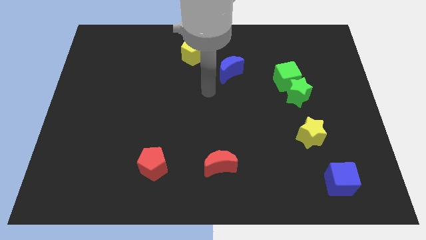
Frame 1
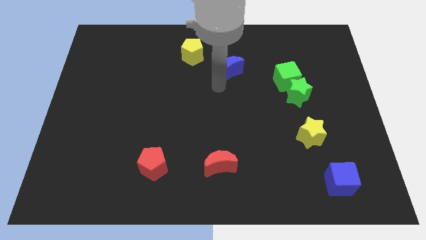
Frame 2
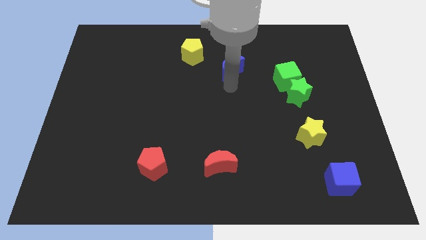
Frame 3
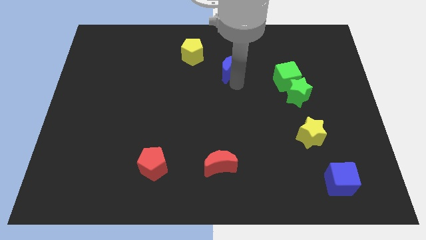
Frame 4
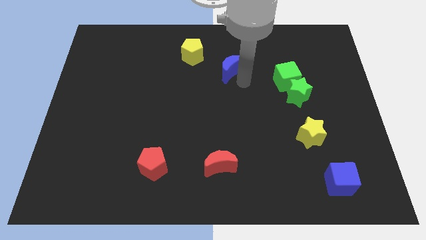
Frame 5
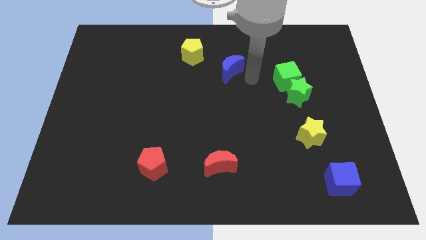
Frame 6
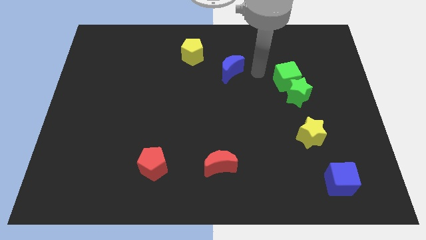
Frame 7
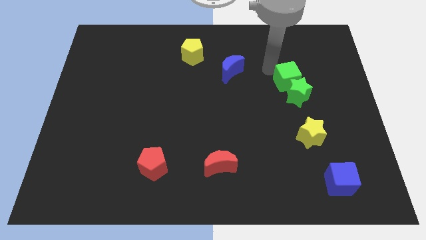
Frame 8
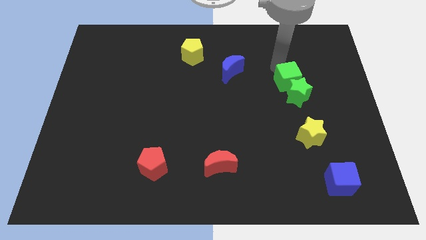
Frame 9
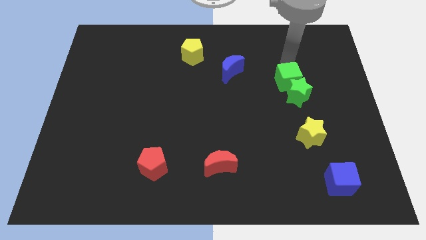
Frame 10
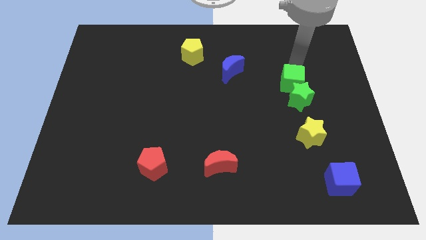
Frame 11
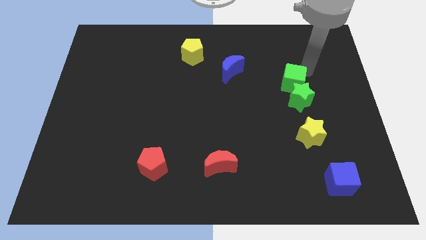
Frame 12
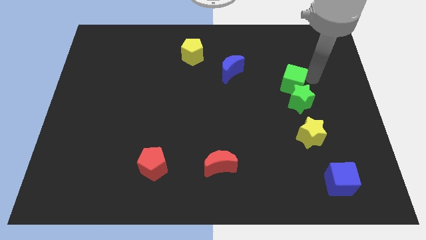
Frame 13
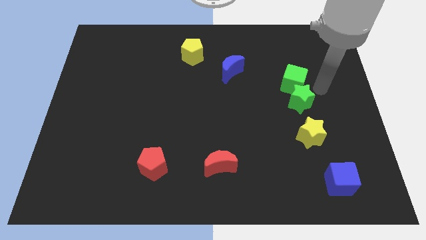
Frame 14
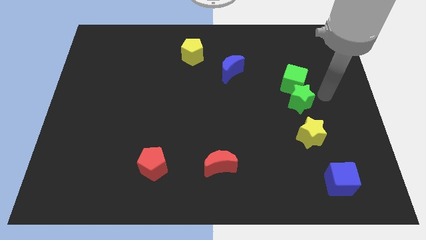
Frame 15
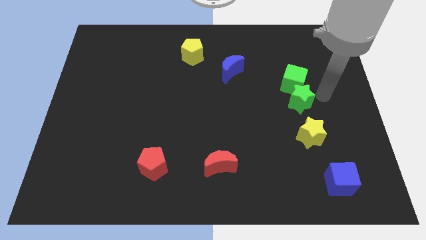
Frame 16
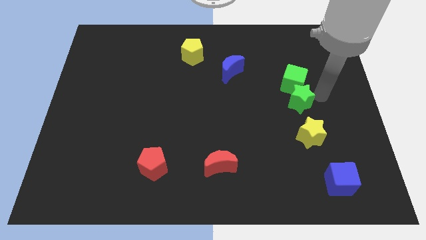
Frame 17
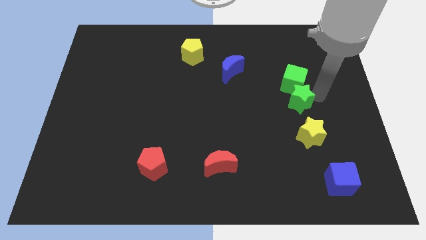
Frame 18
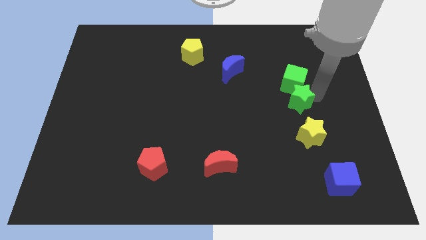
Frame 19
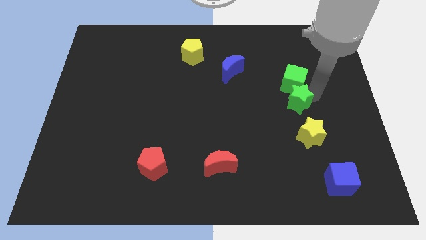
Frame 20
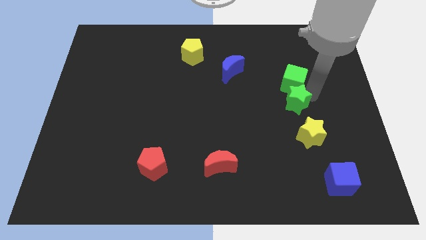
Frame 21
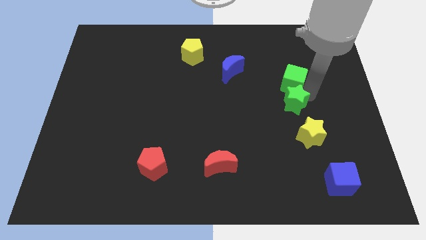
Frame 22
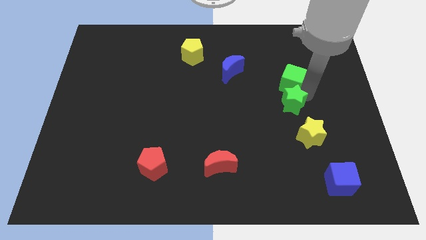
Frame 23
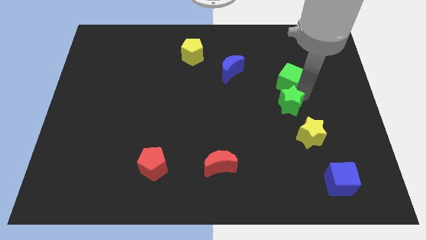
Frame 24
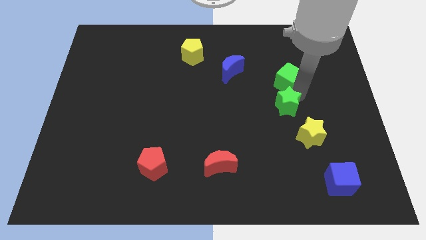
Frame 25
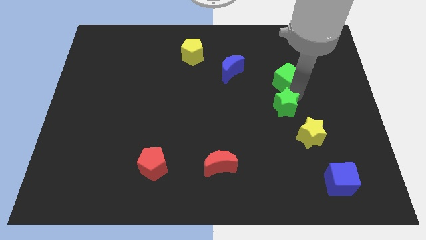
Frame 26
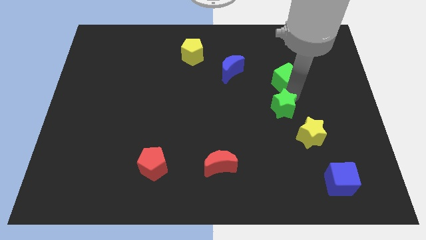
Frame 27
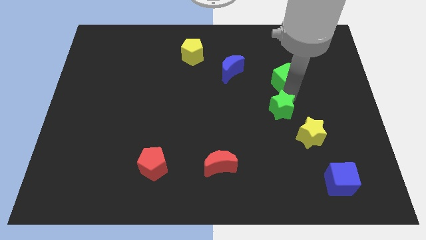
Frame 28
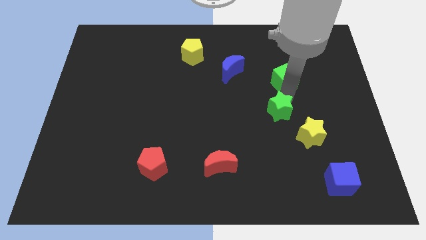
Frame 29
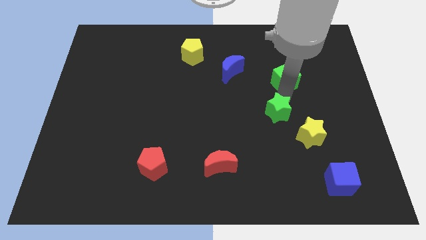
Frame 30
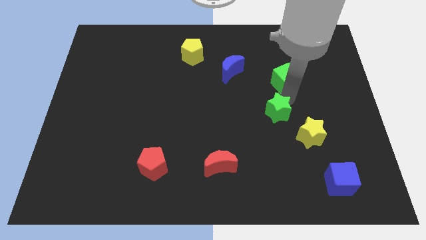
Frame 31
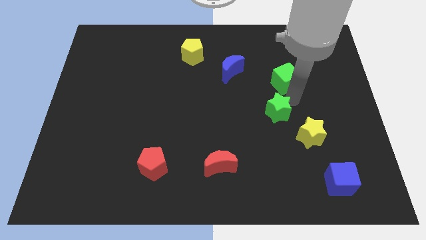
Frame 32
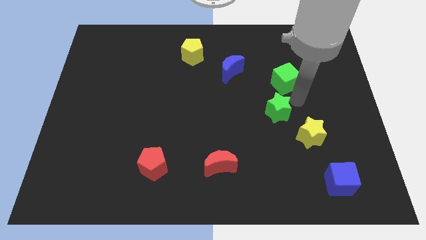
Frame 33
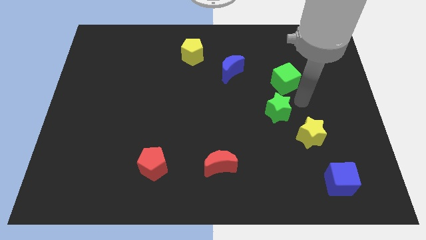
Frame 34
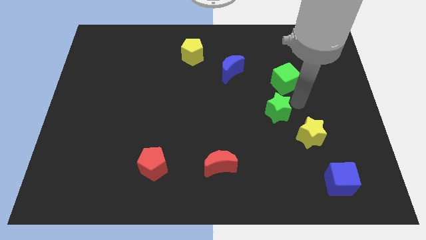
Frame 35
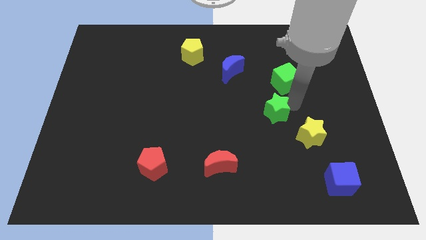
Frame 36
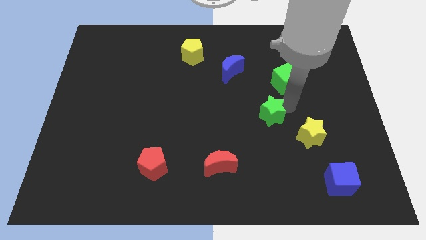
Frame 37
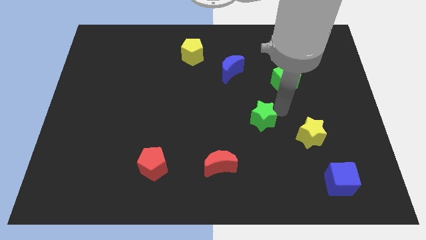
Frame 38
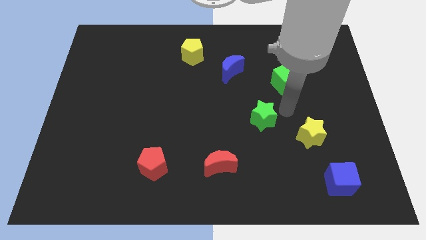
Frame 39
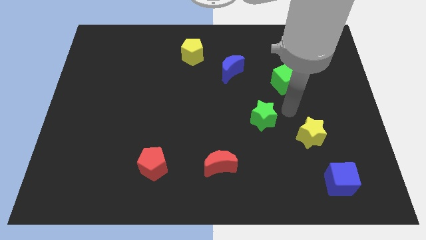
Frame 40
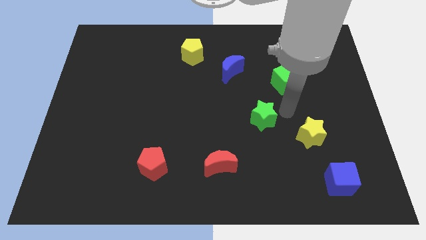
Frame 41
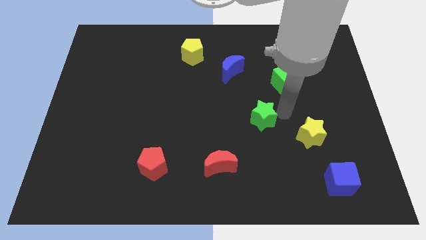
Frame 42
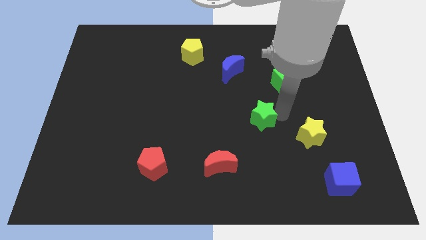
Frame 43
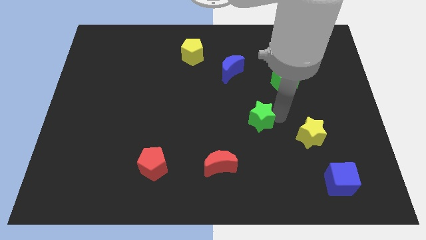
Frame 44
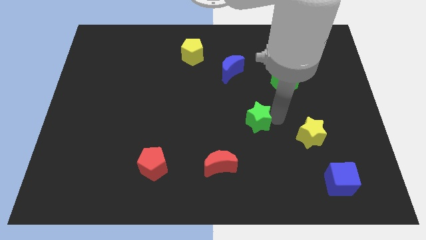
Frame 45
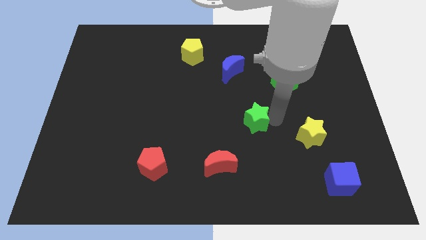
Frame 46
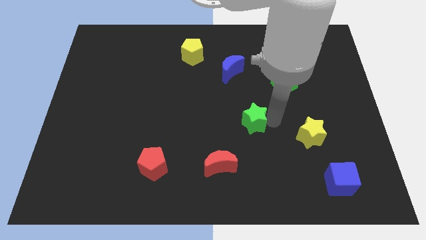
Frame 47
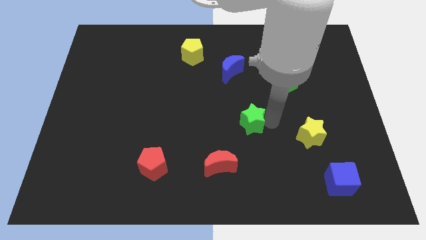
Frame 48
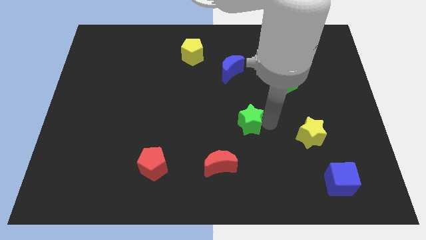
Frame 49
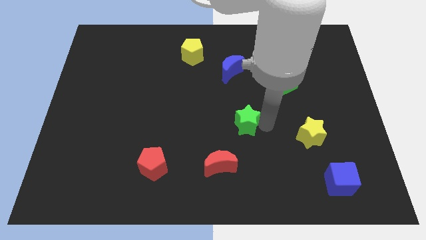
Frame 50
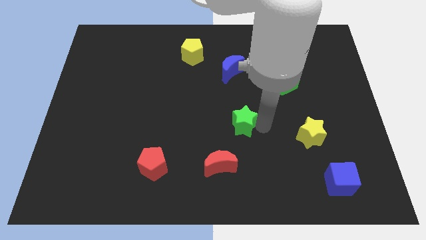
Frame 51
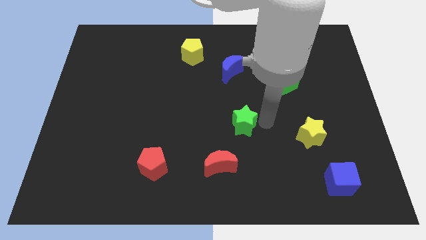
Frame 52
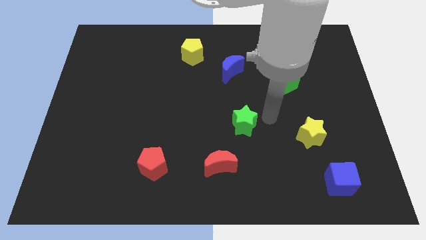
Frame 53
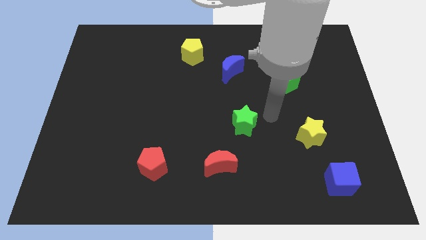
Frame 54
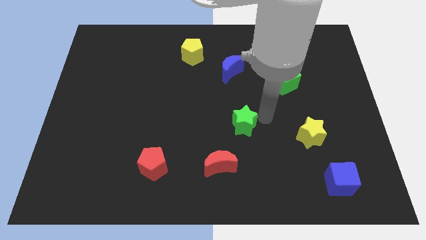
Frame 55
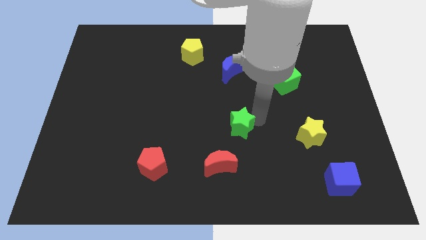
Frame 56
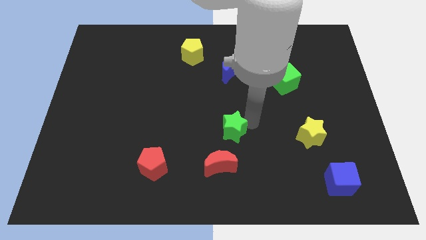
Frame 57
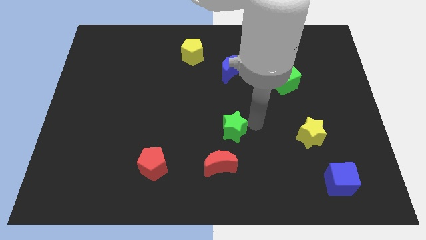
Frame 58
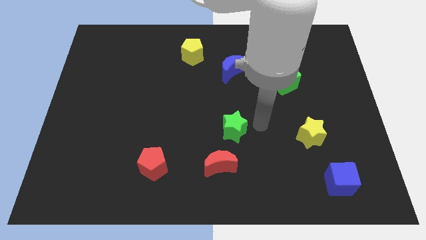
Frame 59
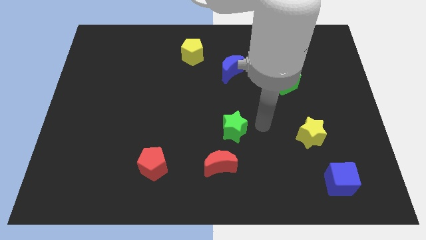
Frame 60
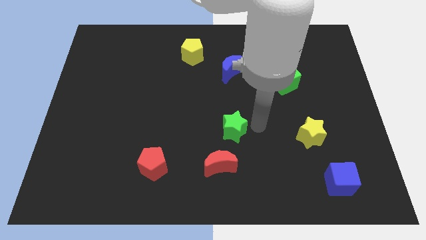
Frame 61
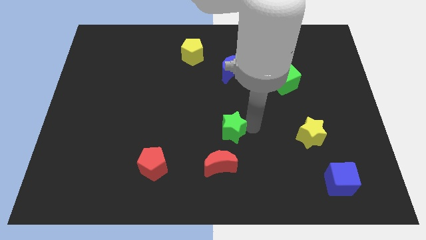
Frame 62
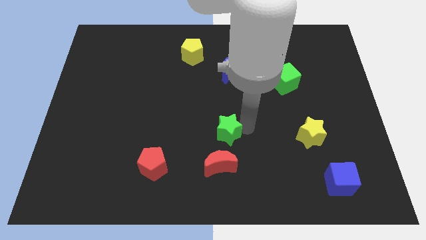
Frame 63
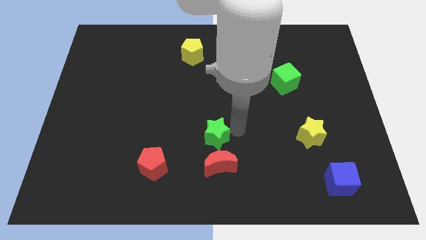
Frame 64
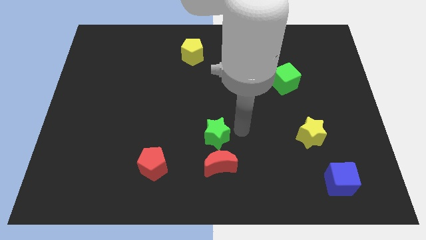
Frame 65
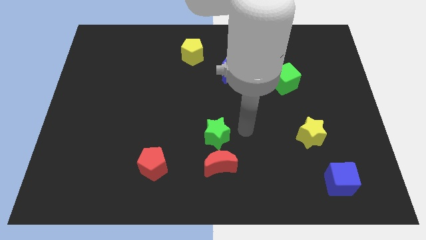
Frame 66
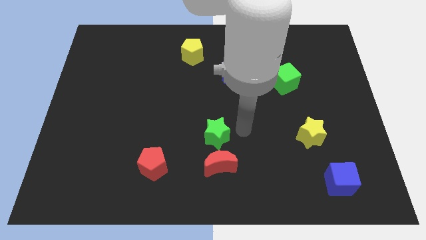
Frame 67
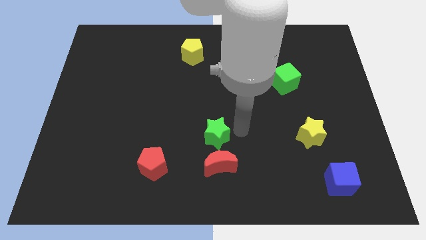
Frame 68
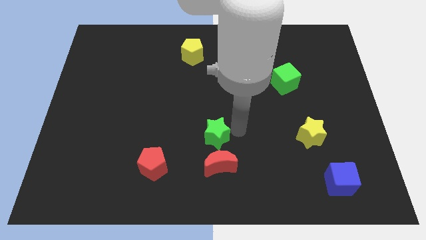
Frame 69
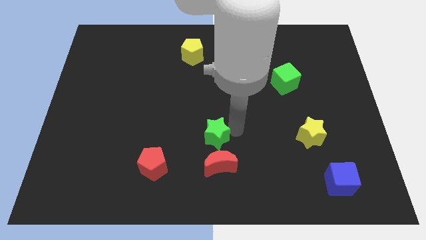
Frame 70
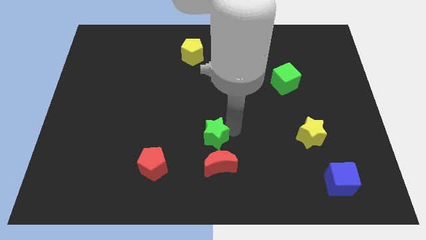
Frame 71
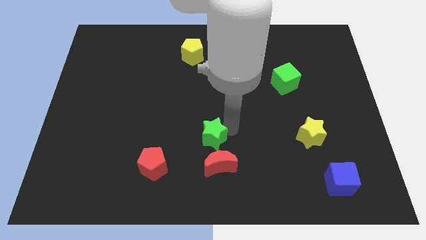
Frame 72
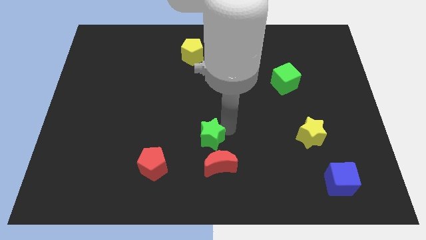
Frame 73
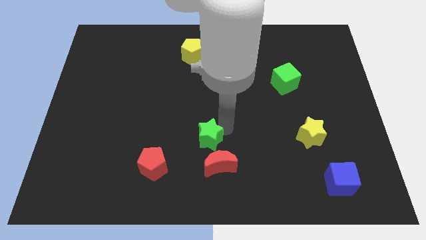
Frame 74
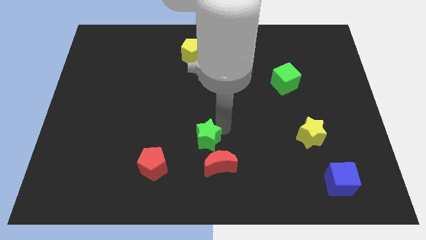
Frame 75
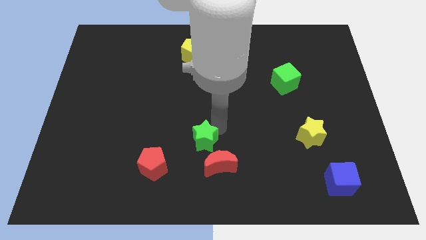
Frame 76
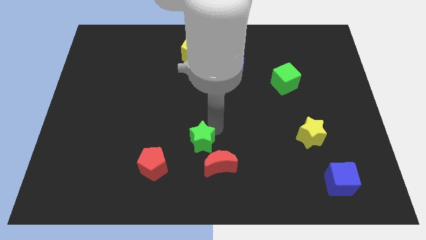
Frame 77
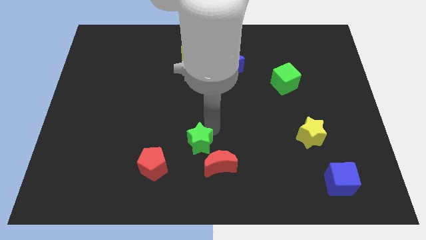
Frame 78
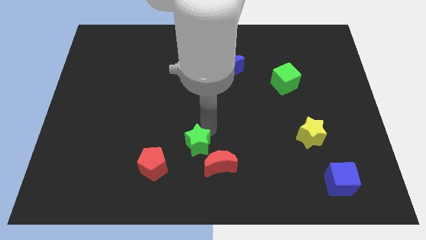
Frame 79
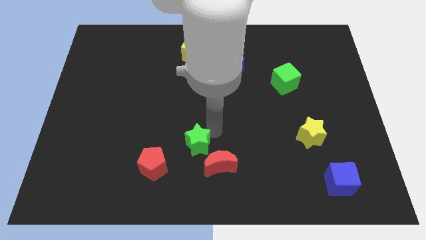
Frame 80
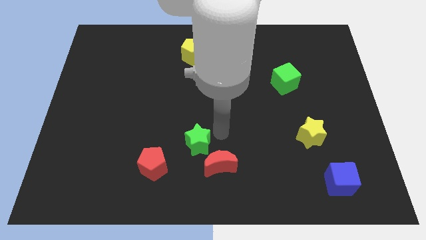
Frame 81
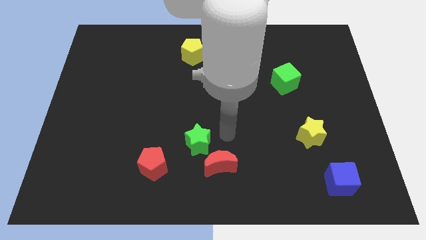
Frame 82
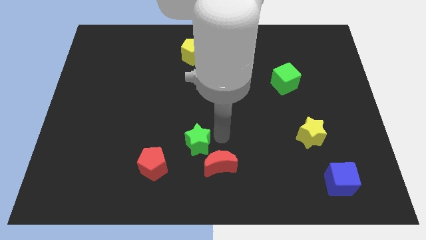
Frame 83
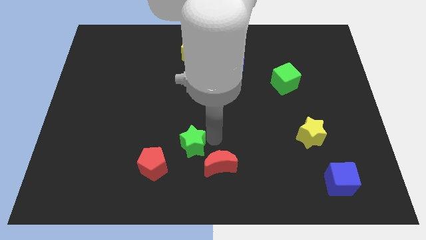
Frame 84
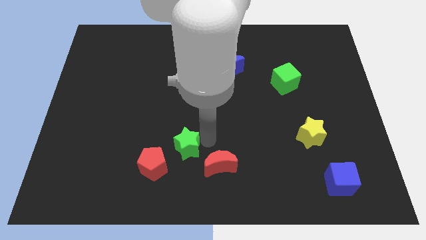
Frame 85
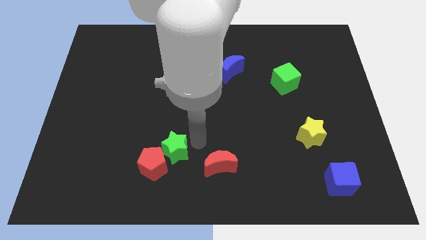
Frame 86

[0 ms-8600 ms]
move the green star close to the red pentagon
